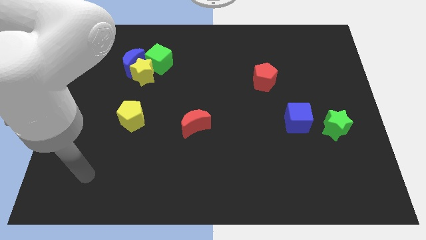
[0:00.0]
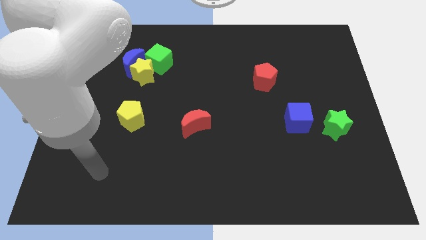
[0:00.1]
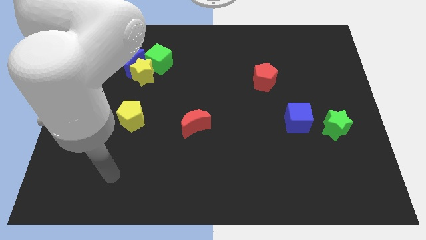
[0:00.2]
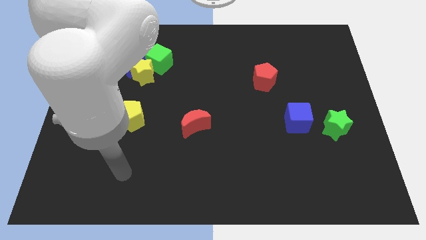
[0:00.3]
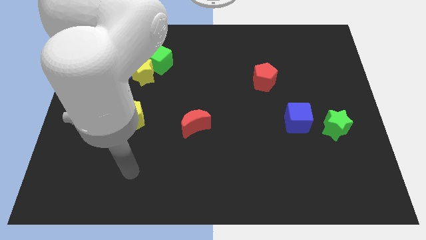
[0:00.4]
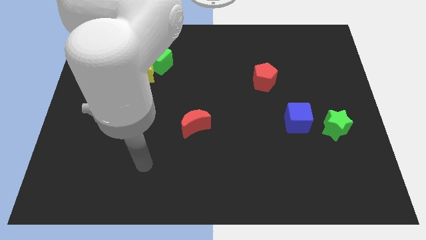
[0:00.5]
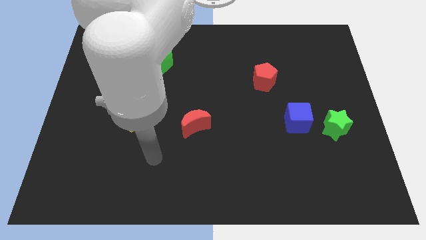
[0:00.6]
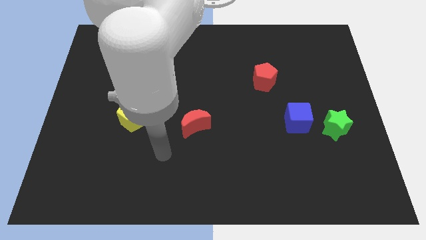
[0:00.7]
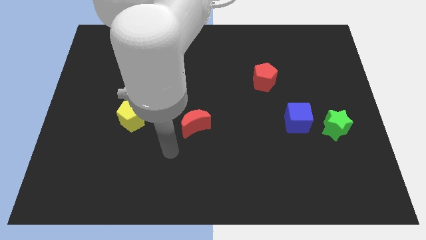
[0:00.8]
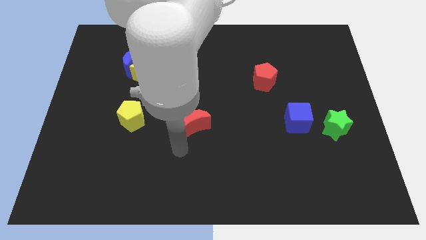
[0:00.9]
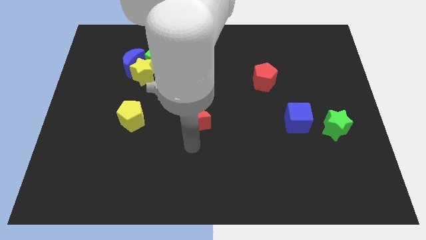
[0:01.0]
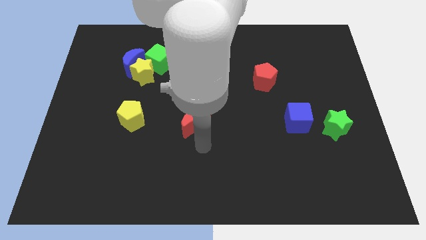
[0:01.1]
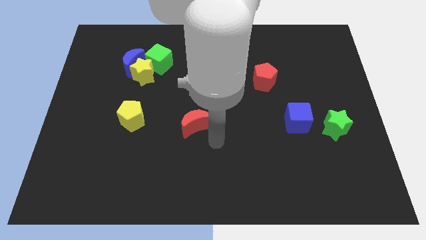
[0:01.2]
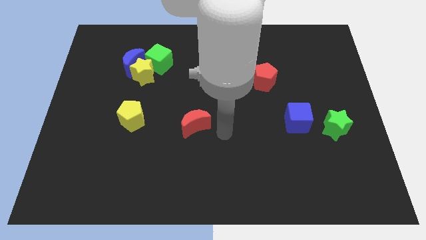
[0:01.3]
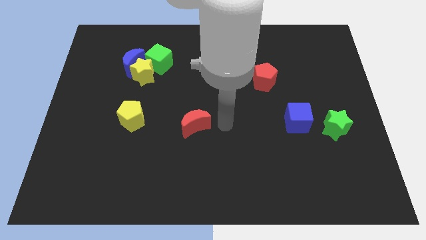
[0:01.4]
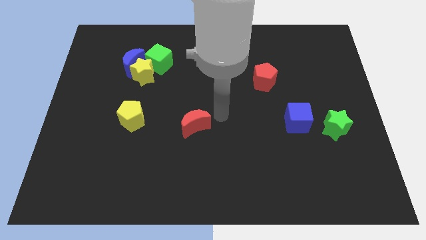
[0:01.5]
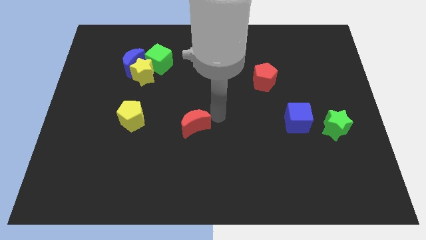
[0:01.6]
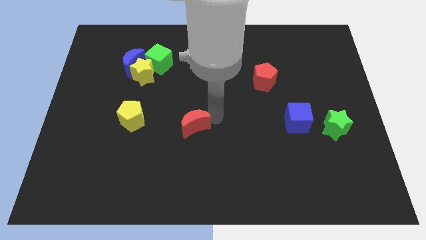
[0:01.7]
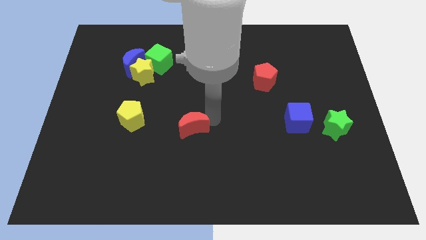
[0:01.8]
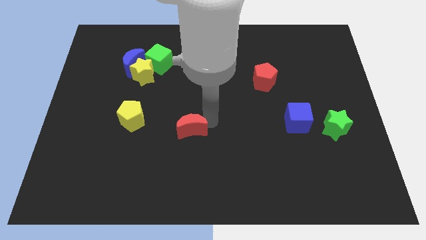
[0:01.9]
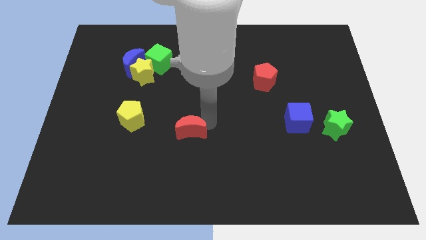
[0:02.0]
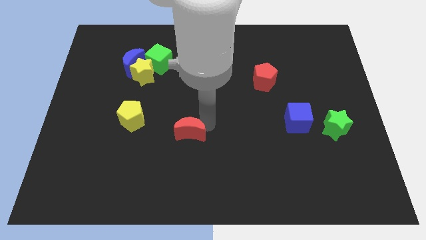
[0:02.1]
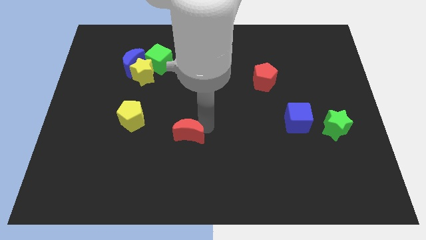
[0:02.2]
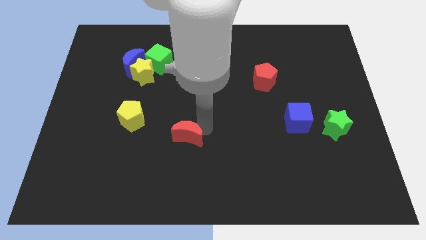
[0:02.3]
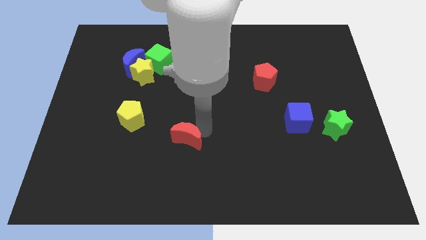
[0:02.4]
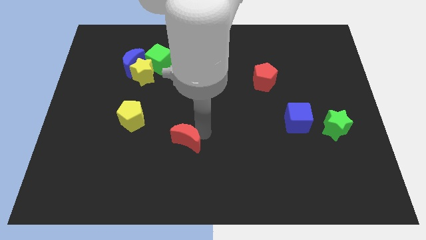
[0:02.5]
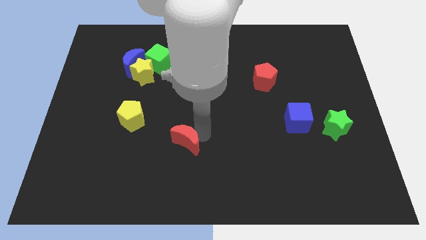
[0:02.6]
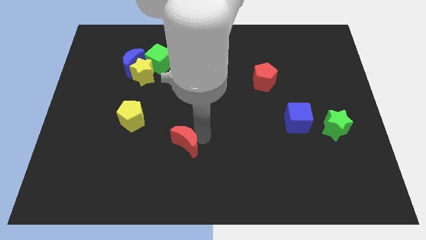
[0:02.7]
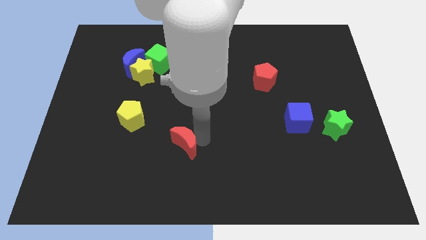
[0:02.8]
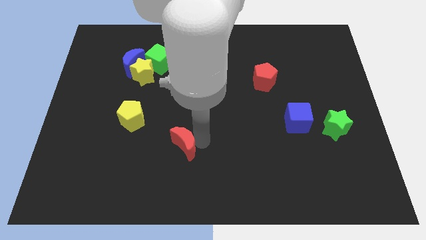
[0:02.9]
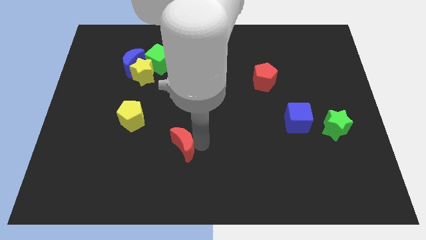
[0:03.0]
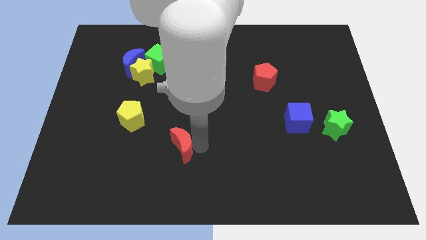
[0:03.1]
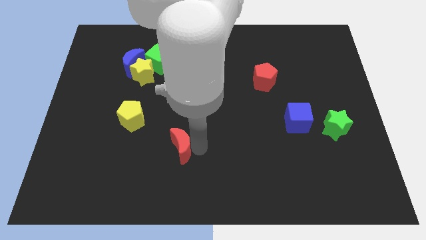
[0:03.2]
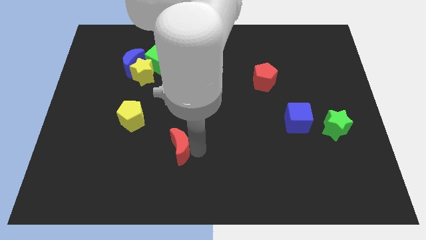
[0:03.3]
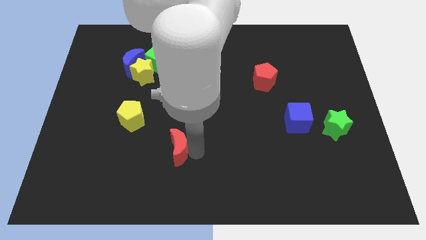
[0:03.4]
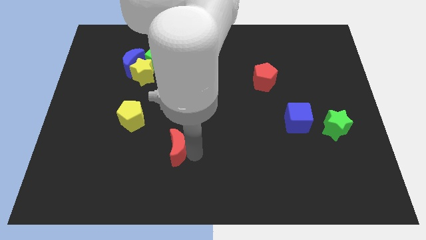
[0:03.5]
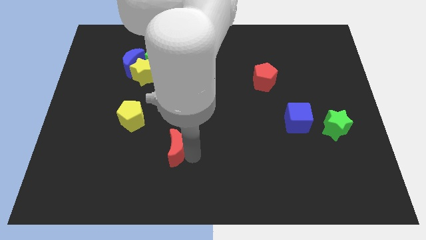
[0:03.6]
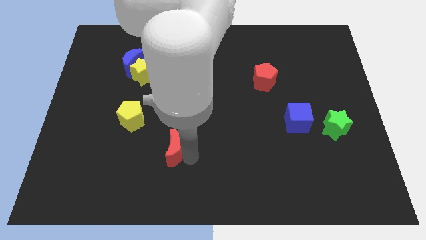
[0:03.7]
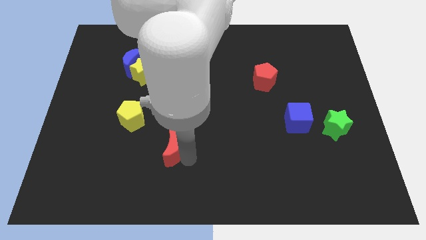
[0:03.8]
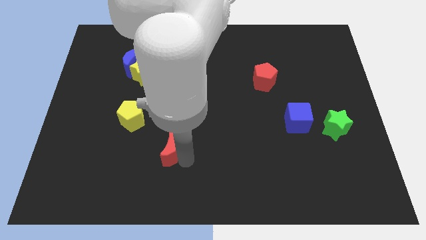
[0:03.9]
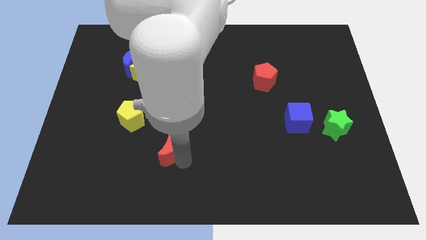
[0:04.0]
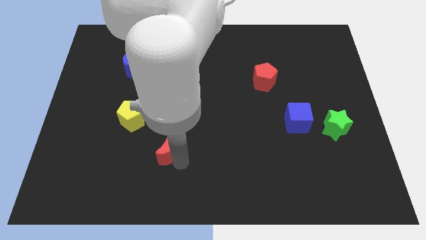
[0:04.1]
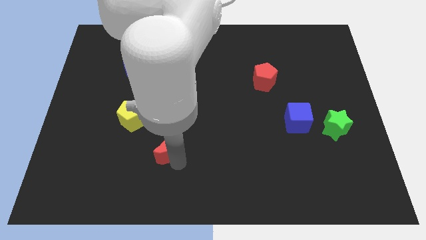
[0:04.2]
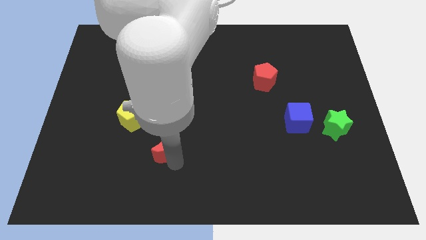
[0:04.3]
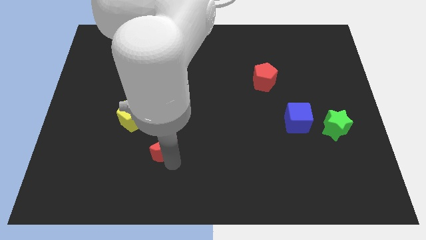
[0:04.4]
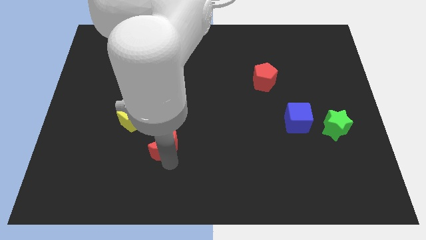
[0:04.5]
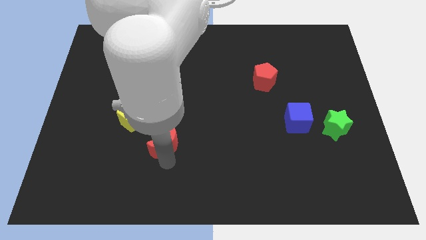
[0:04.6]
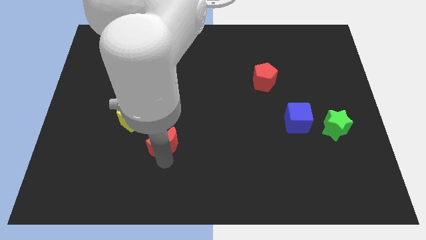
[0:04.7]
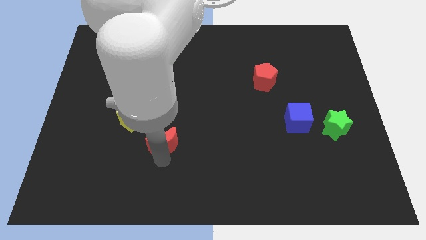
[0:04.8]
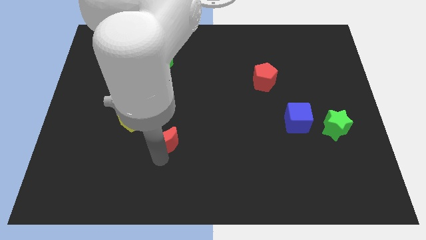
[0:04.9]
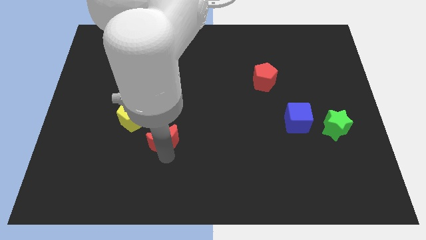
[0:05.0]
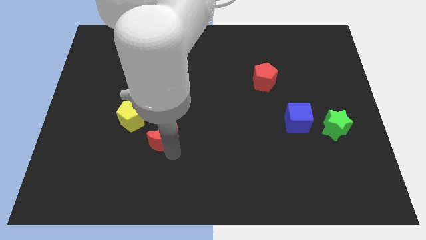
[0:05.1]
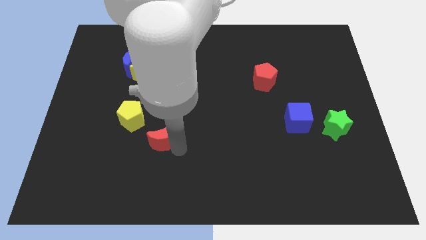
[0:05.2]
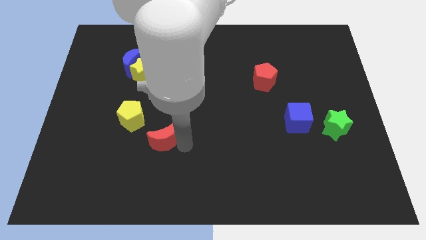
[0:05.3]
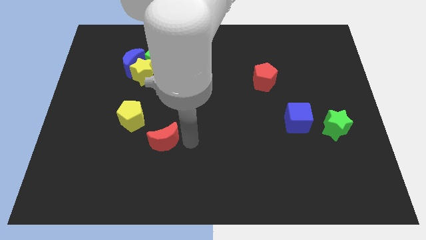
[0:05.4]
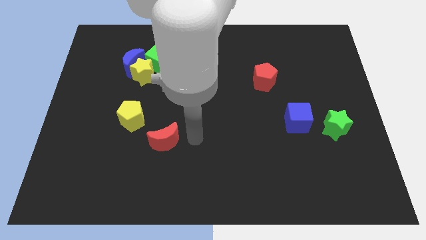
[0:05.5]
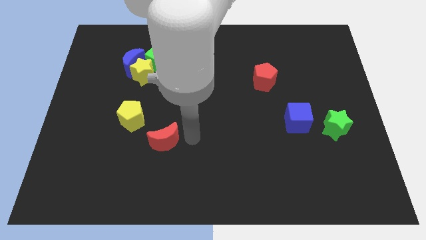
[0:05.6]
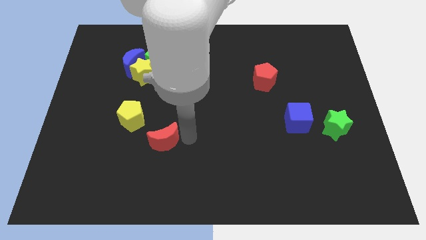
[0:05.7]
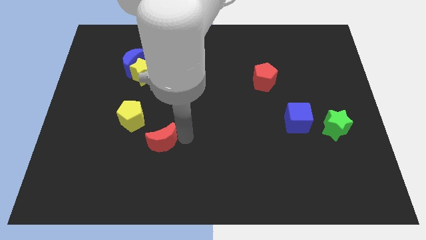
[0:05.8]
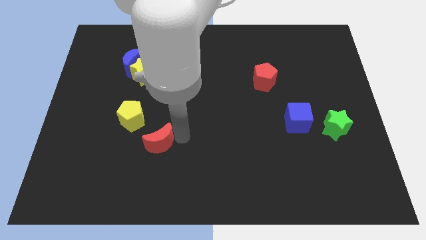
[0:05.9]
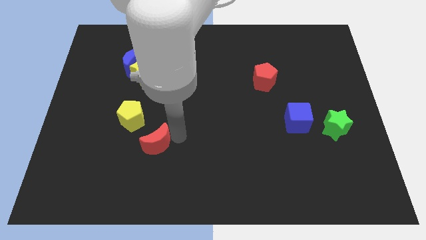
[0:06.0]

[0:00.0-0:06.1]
slightly move the red moon to the left

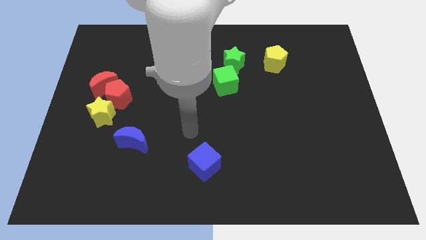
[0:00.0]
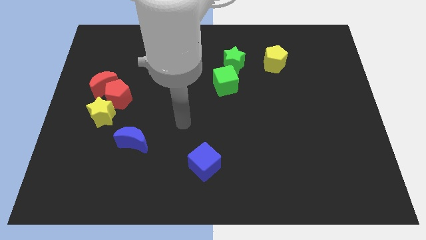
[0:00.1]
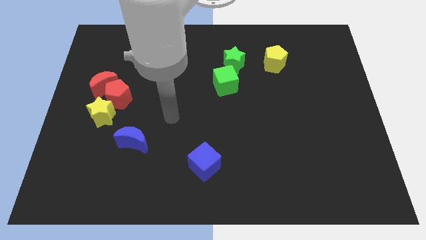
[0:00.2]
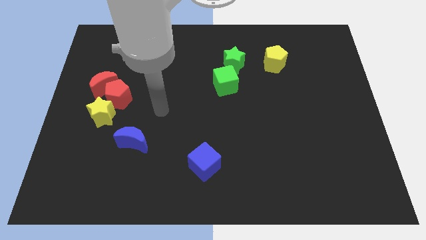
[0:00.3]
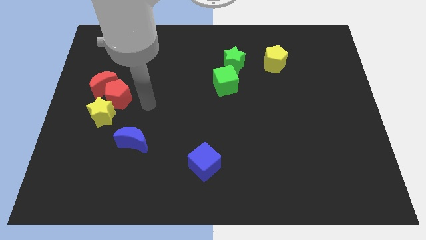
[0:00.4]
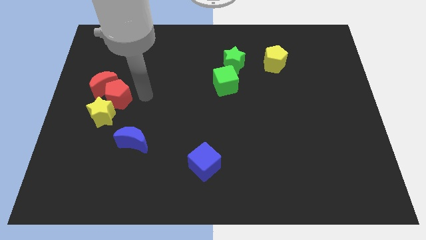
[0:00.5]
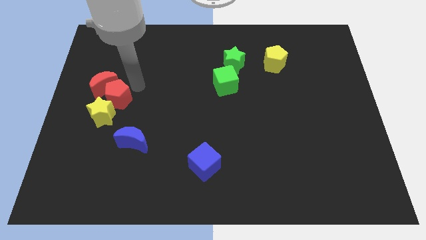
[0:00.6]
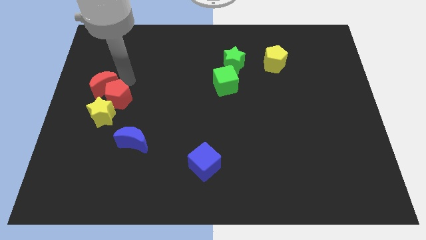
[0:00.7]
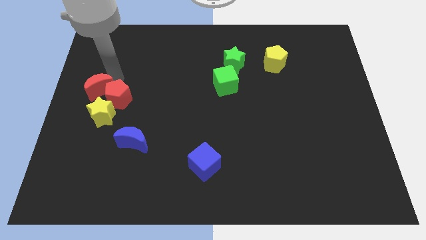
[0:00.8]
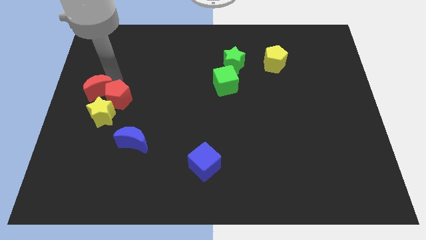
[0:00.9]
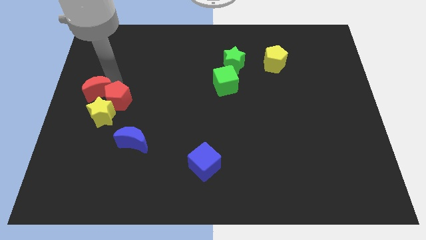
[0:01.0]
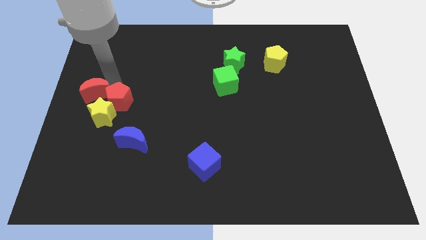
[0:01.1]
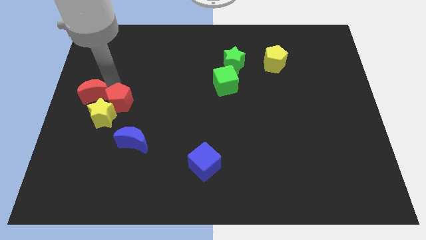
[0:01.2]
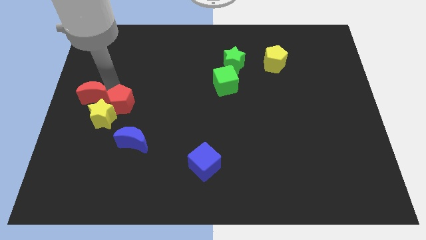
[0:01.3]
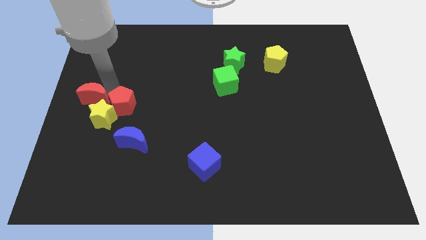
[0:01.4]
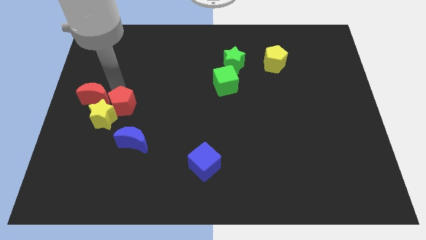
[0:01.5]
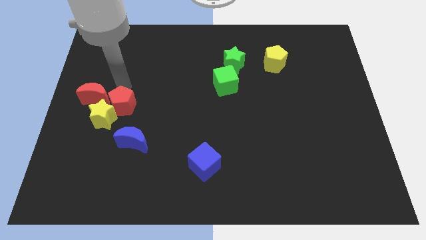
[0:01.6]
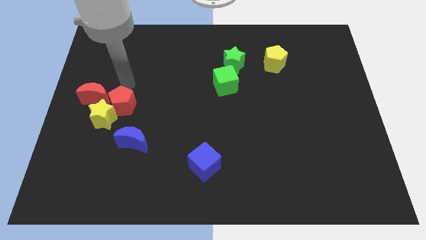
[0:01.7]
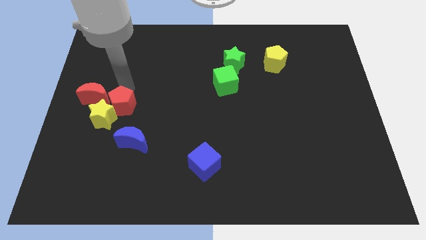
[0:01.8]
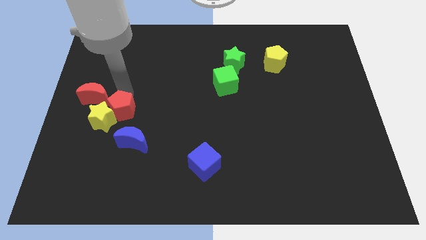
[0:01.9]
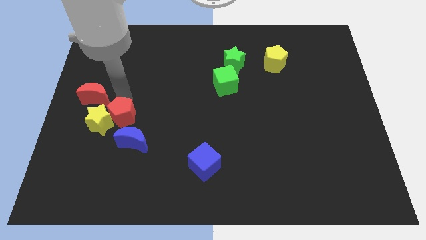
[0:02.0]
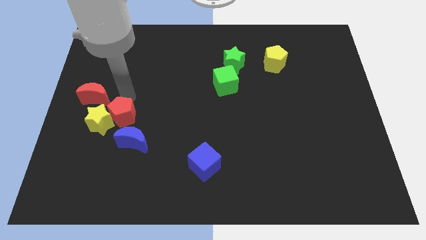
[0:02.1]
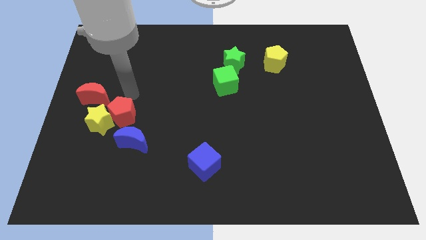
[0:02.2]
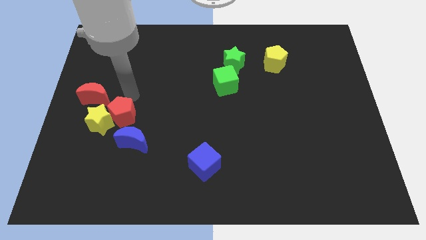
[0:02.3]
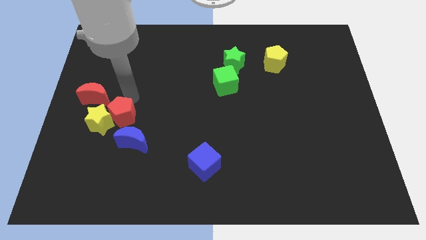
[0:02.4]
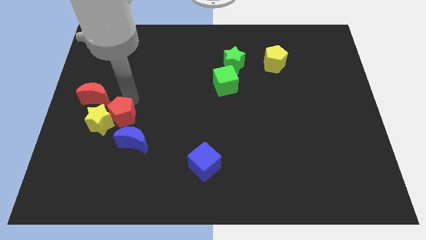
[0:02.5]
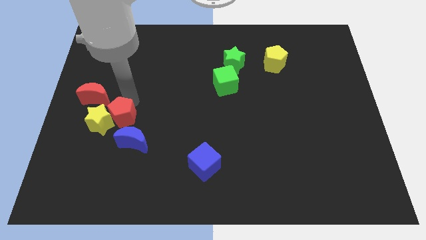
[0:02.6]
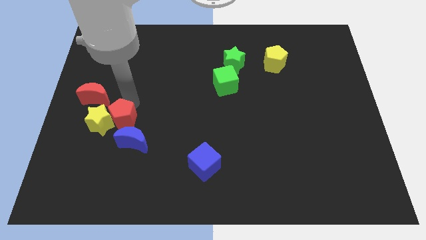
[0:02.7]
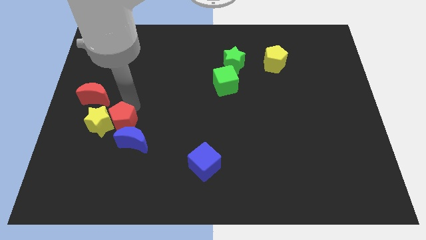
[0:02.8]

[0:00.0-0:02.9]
move the red pentagon a bit downwards
